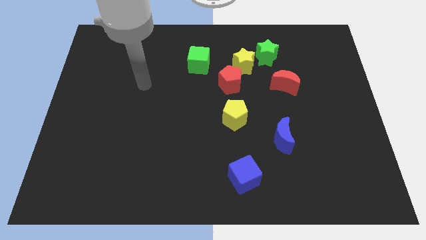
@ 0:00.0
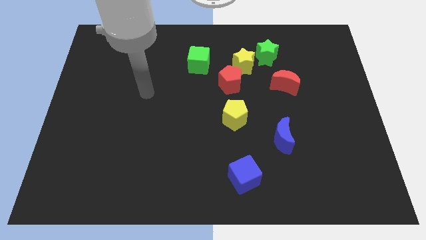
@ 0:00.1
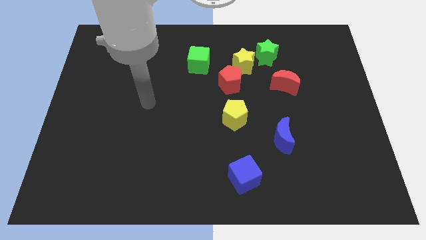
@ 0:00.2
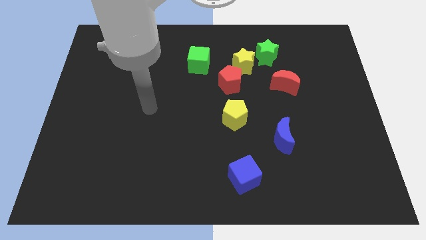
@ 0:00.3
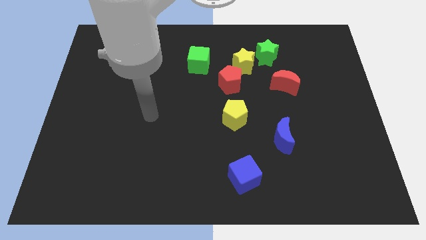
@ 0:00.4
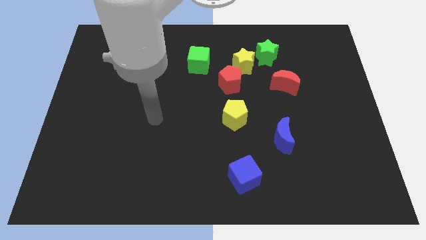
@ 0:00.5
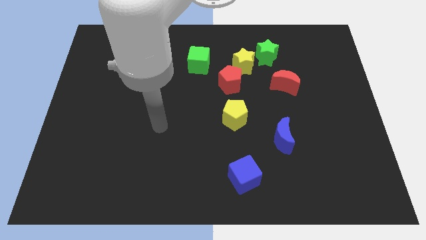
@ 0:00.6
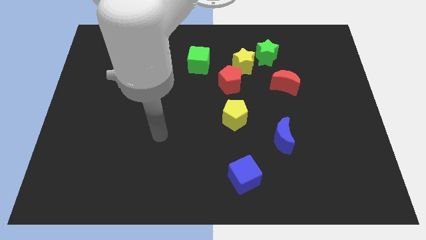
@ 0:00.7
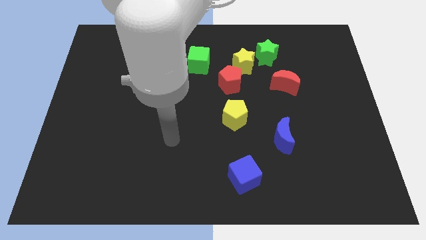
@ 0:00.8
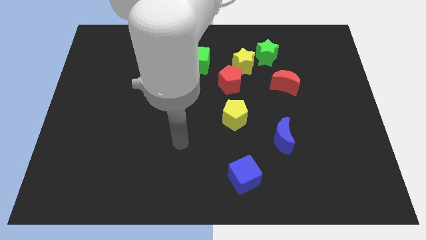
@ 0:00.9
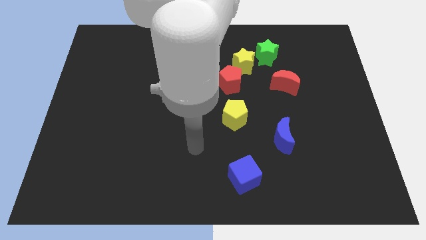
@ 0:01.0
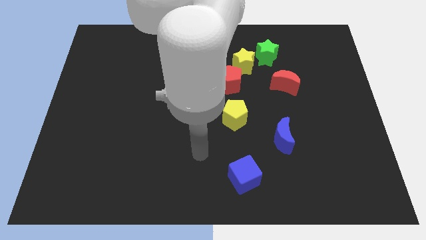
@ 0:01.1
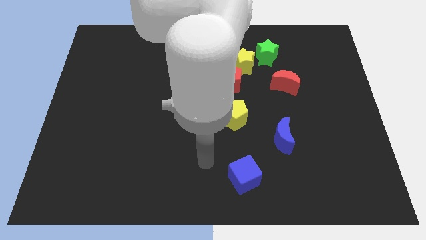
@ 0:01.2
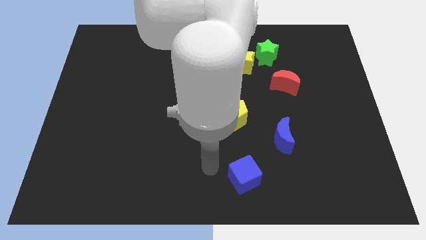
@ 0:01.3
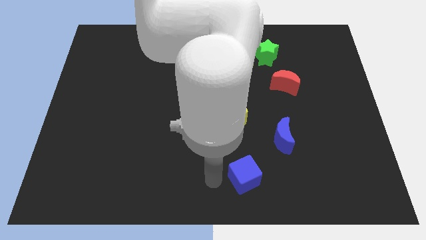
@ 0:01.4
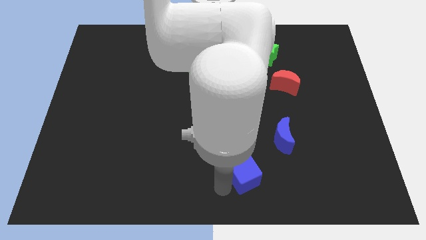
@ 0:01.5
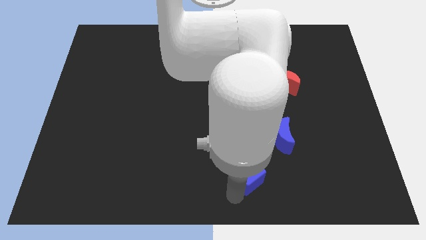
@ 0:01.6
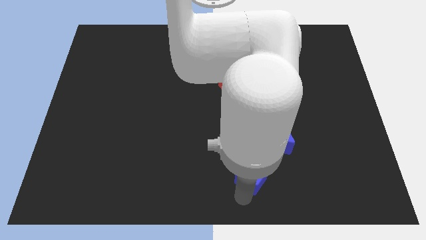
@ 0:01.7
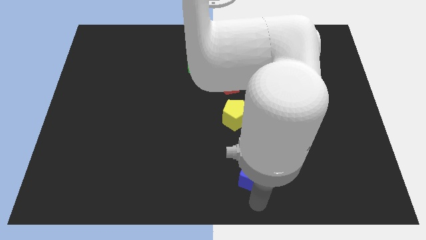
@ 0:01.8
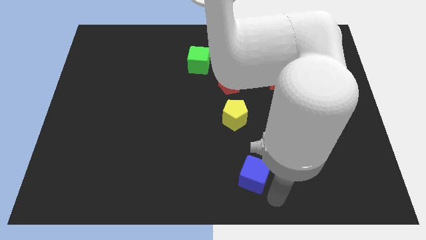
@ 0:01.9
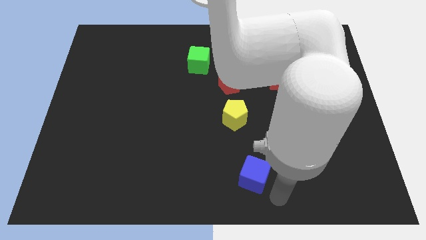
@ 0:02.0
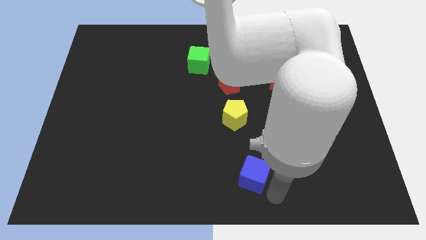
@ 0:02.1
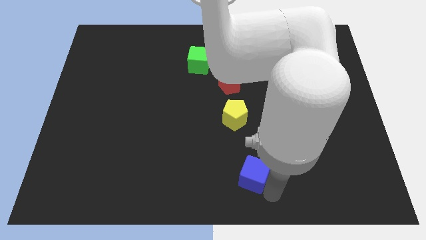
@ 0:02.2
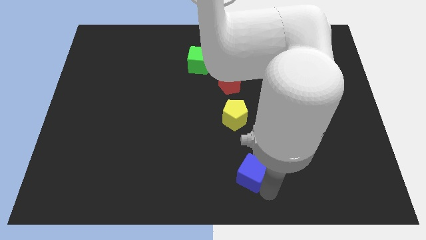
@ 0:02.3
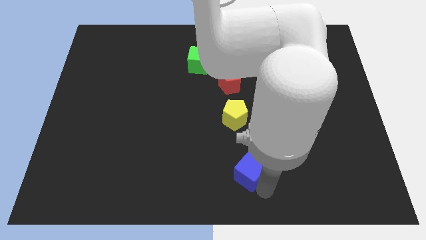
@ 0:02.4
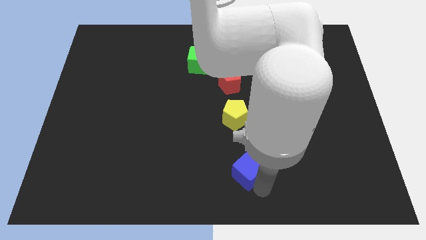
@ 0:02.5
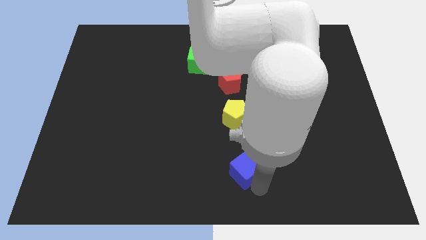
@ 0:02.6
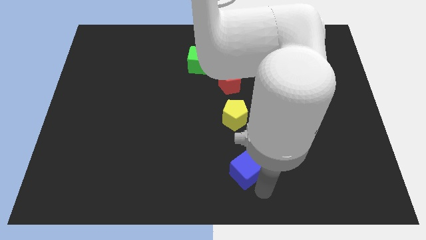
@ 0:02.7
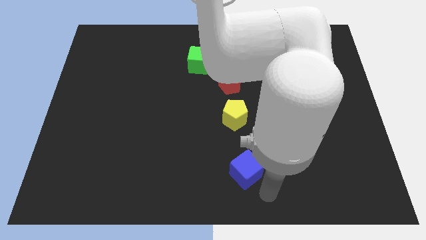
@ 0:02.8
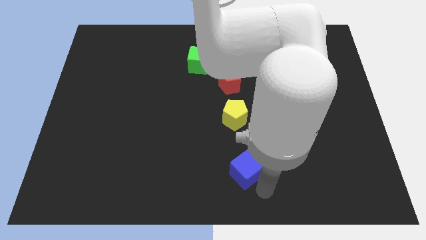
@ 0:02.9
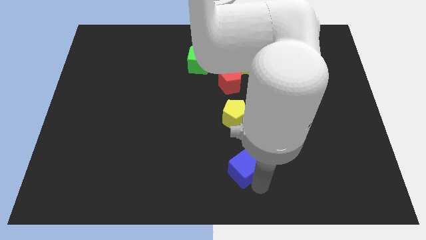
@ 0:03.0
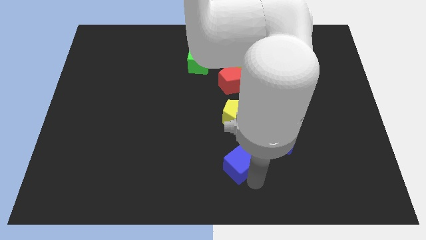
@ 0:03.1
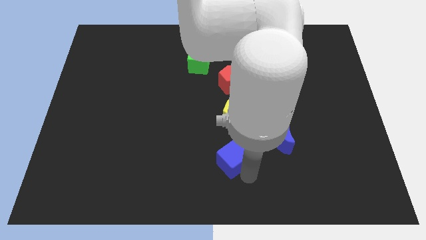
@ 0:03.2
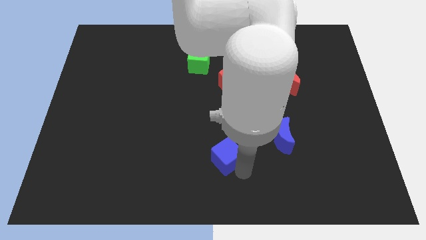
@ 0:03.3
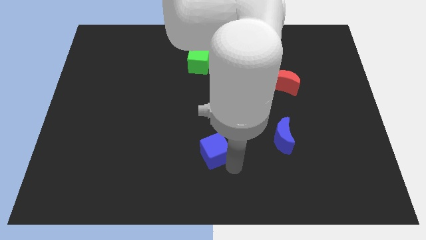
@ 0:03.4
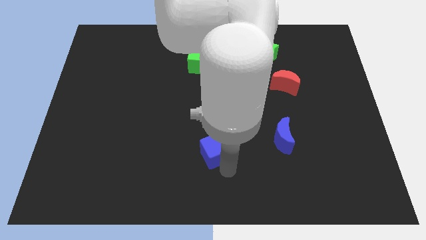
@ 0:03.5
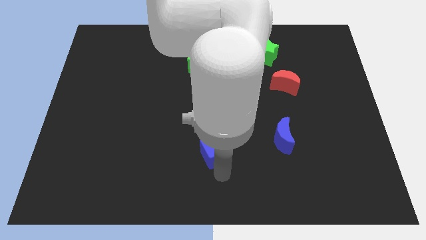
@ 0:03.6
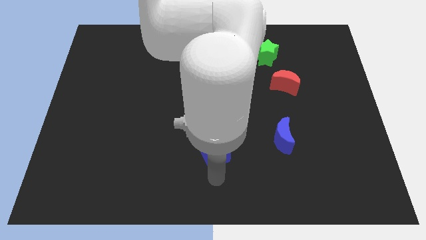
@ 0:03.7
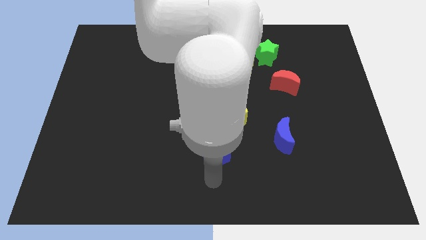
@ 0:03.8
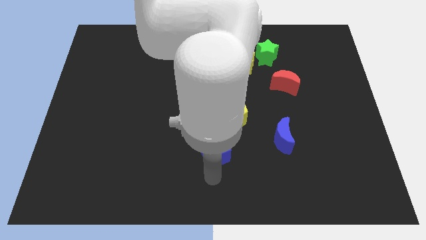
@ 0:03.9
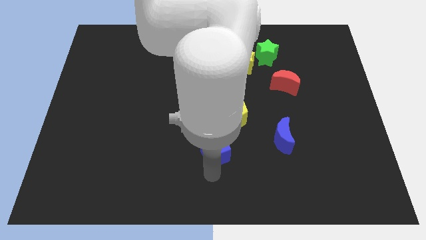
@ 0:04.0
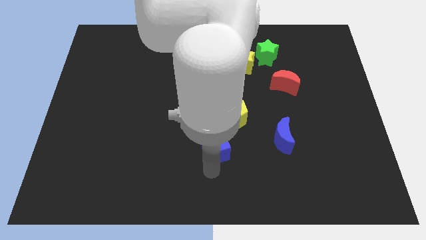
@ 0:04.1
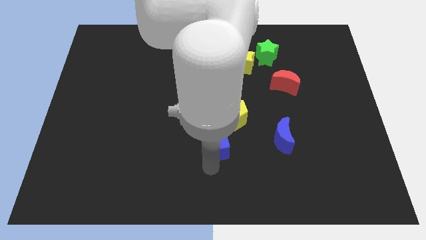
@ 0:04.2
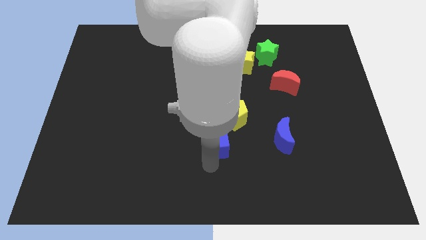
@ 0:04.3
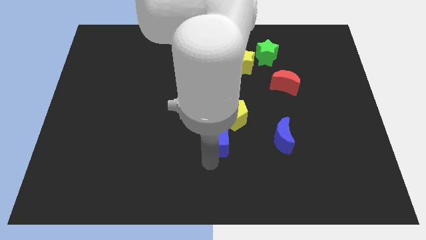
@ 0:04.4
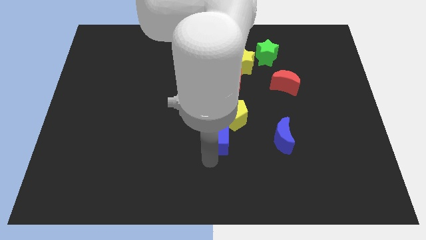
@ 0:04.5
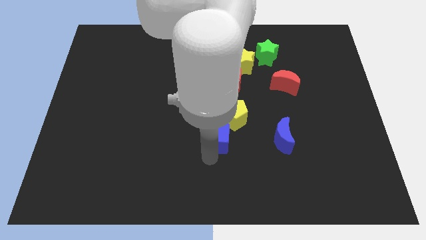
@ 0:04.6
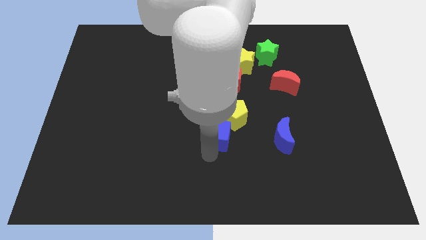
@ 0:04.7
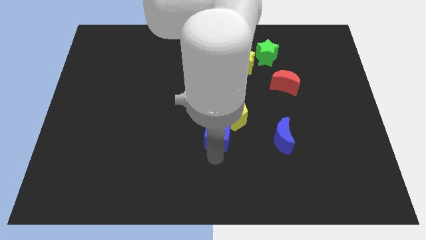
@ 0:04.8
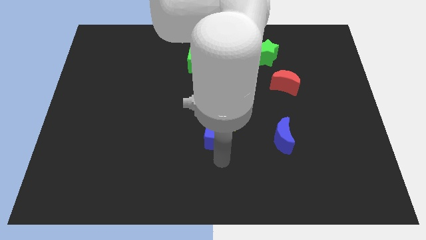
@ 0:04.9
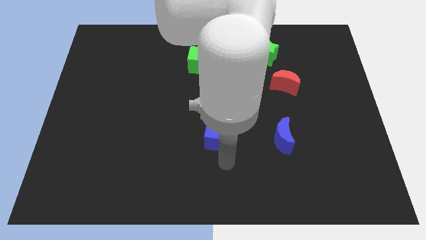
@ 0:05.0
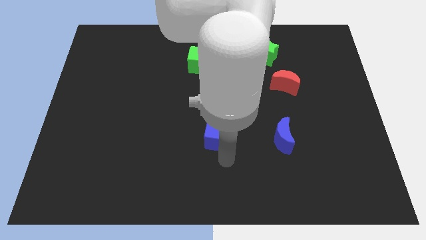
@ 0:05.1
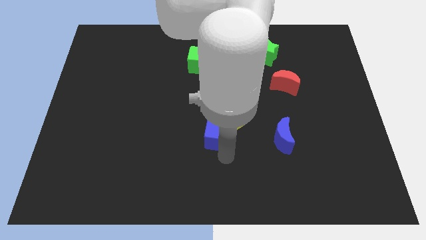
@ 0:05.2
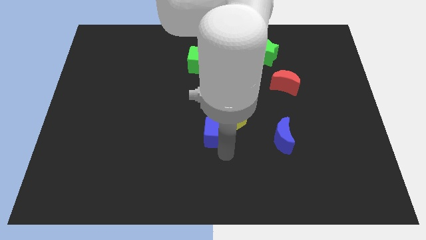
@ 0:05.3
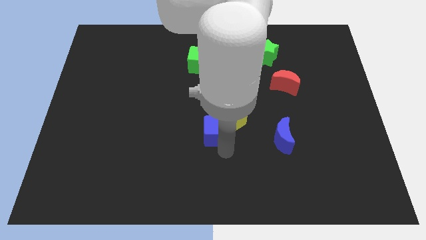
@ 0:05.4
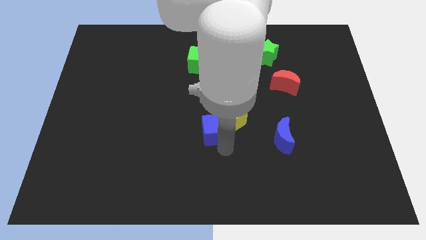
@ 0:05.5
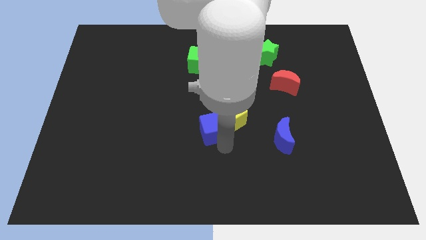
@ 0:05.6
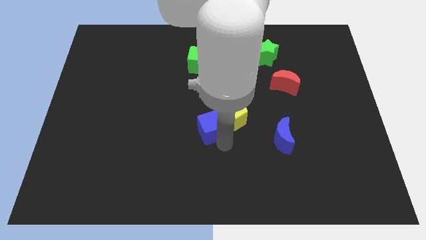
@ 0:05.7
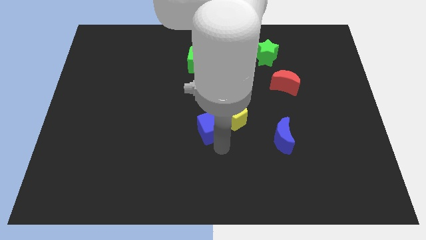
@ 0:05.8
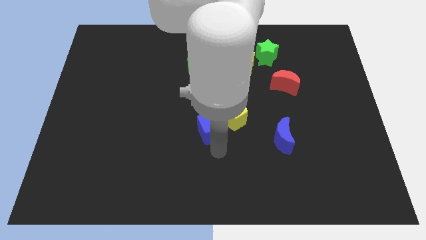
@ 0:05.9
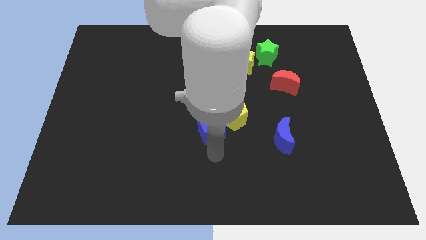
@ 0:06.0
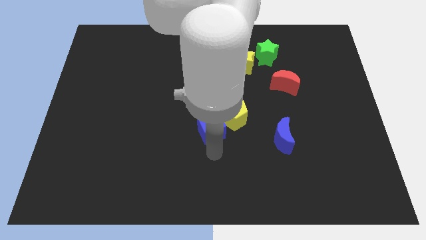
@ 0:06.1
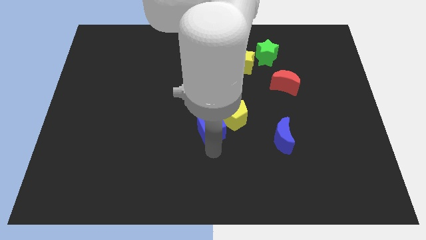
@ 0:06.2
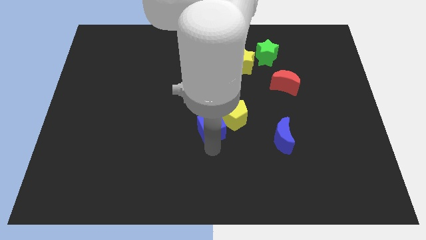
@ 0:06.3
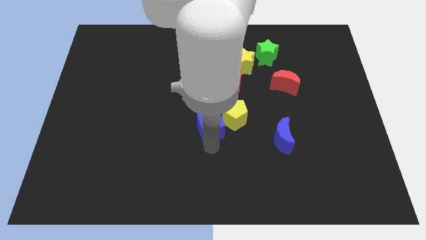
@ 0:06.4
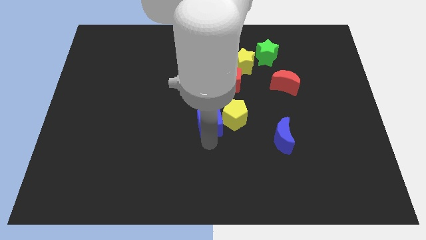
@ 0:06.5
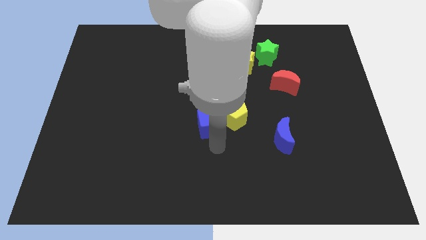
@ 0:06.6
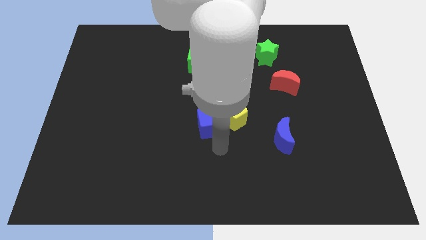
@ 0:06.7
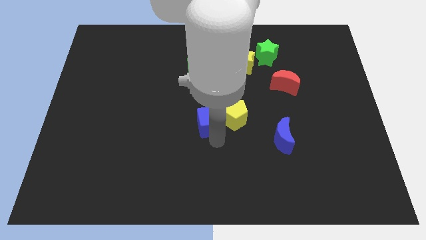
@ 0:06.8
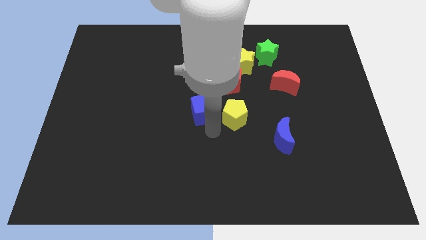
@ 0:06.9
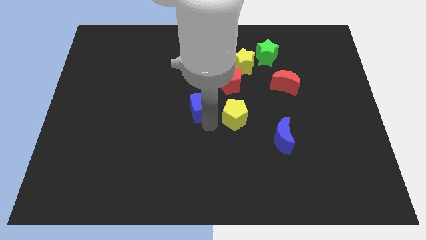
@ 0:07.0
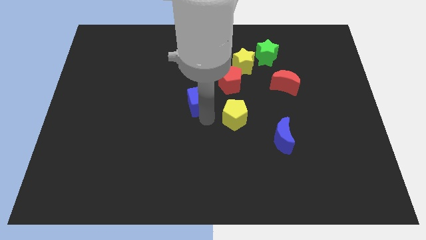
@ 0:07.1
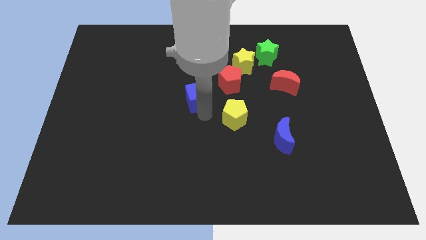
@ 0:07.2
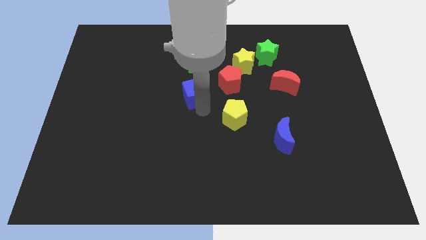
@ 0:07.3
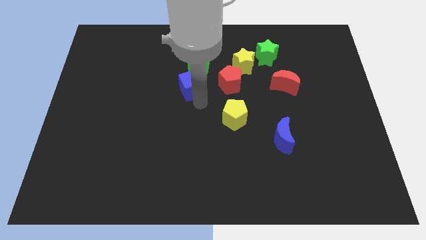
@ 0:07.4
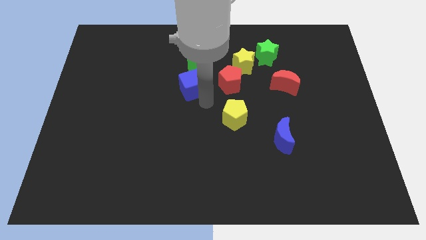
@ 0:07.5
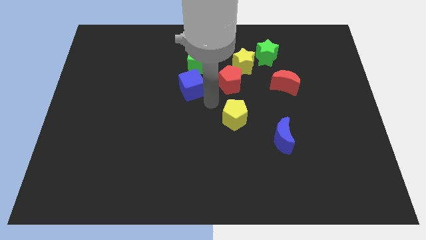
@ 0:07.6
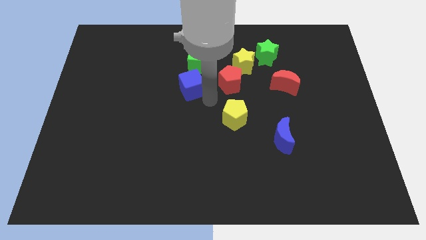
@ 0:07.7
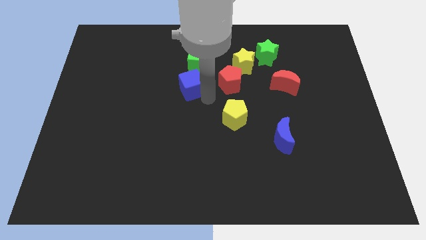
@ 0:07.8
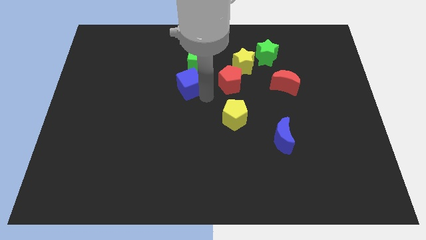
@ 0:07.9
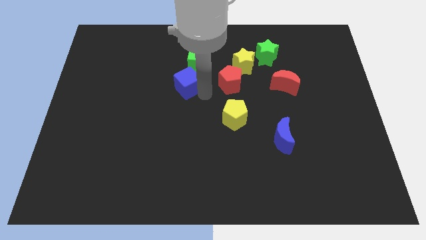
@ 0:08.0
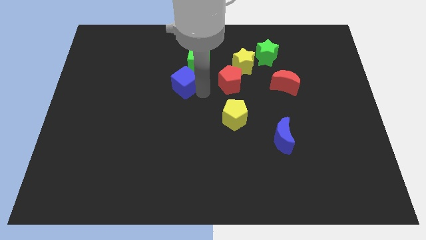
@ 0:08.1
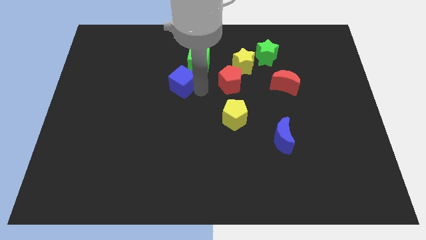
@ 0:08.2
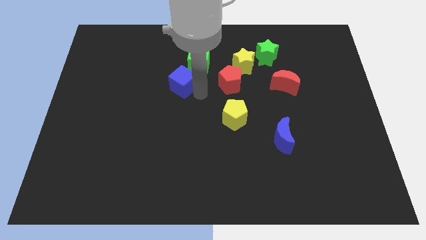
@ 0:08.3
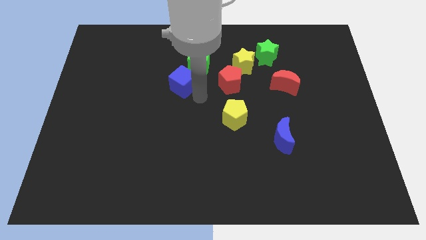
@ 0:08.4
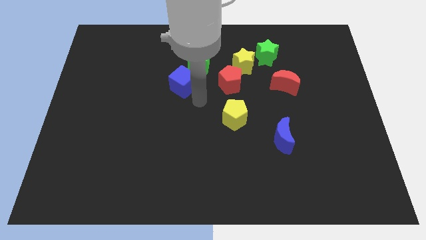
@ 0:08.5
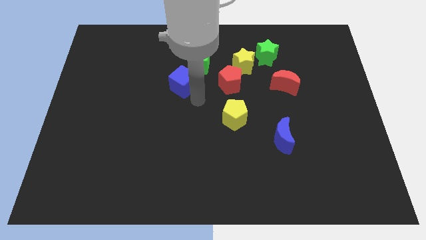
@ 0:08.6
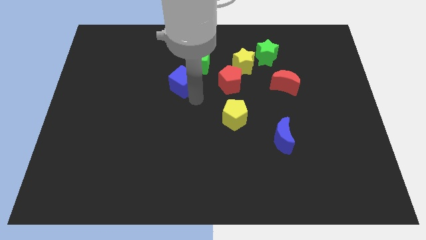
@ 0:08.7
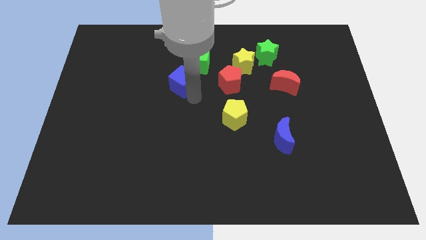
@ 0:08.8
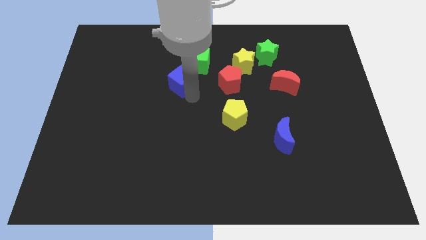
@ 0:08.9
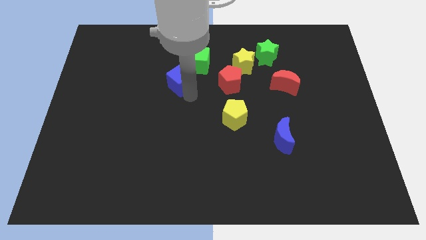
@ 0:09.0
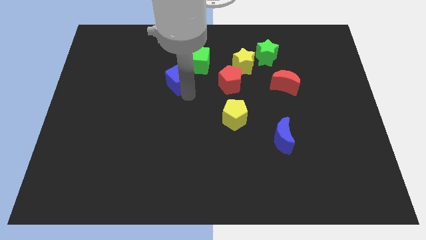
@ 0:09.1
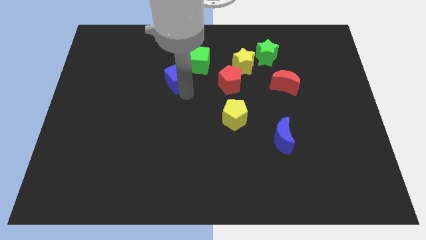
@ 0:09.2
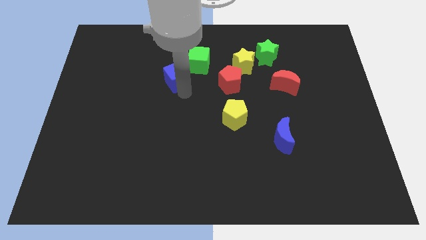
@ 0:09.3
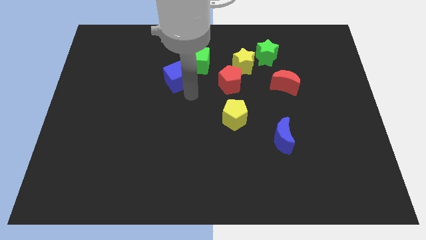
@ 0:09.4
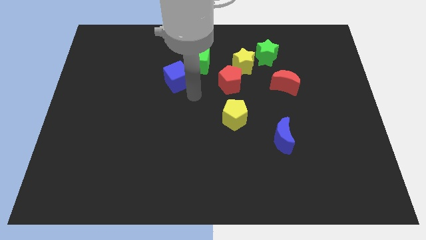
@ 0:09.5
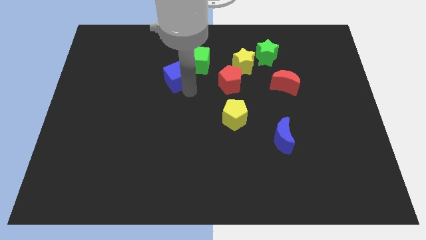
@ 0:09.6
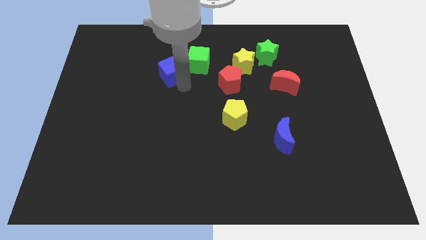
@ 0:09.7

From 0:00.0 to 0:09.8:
slide the blue cube to the left side of the green cube
